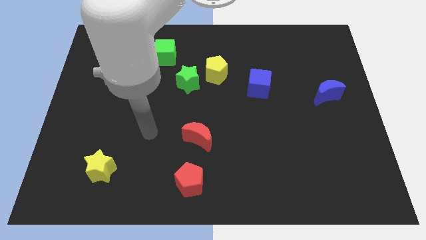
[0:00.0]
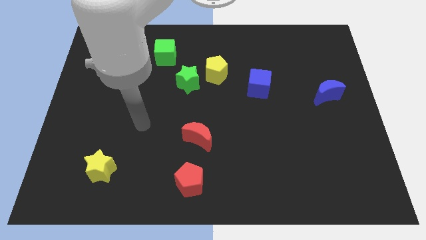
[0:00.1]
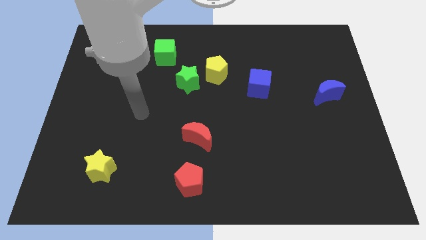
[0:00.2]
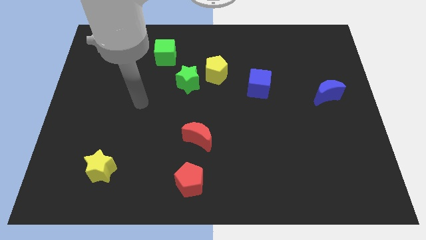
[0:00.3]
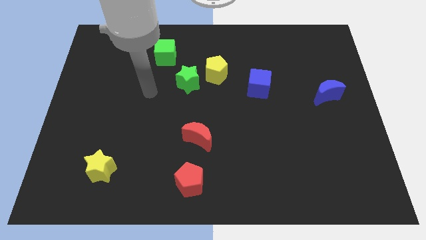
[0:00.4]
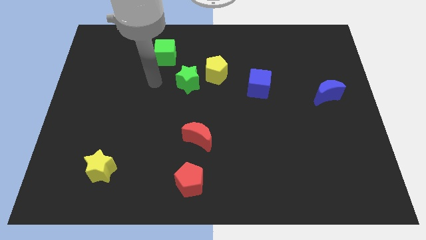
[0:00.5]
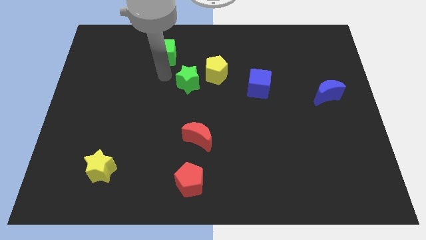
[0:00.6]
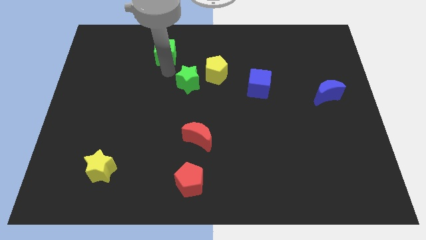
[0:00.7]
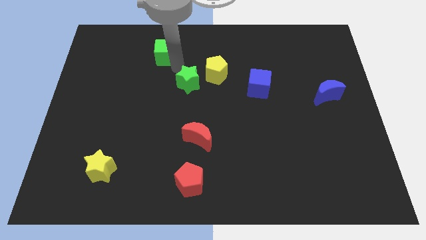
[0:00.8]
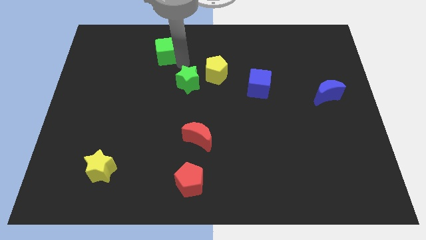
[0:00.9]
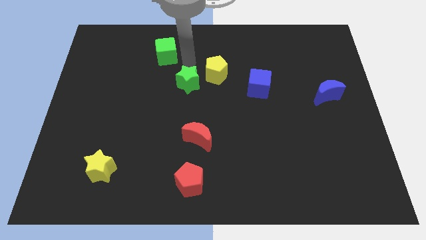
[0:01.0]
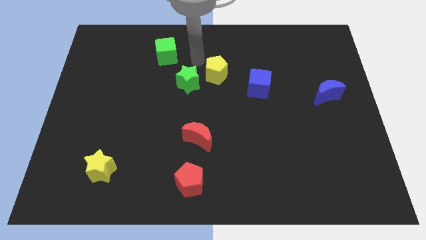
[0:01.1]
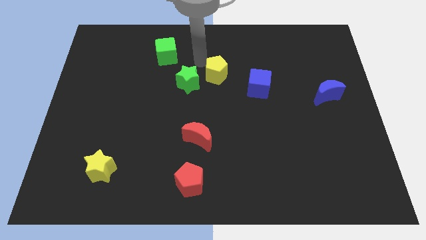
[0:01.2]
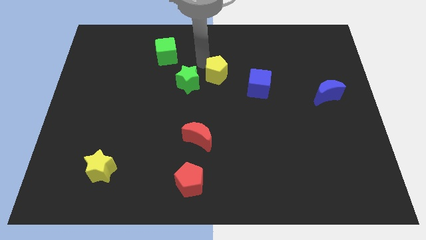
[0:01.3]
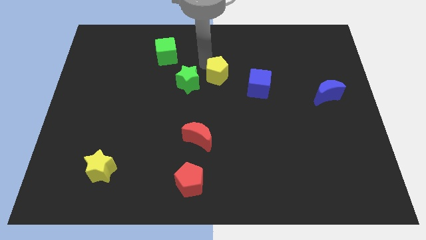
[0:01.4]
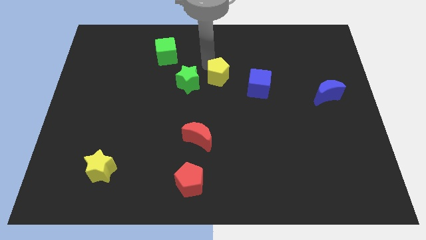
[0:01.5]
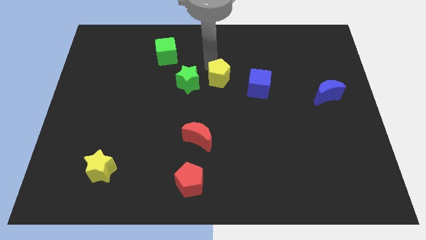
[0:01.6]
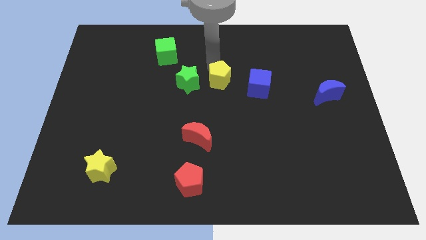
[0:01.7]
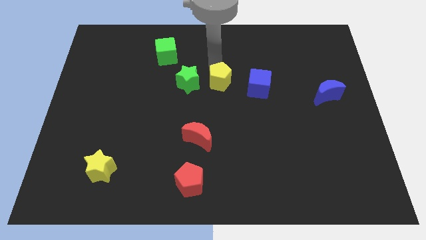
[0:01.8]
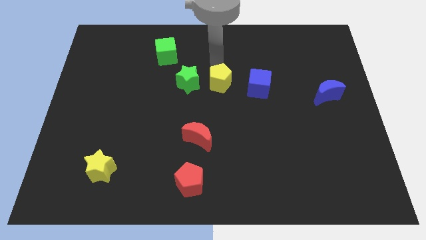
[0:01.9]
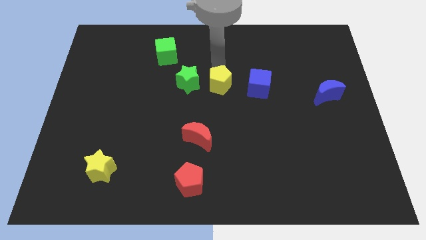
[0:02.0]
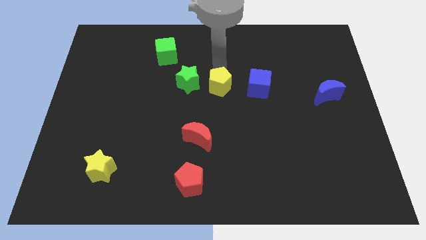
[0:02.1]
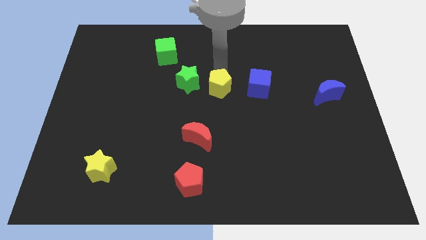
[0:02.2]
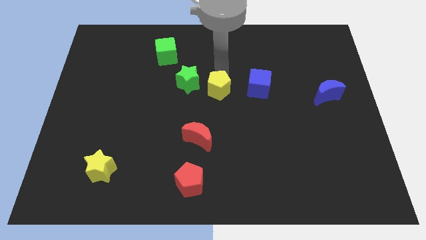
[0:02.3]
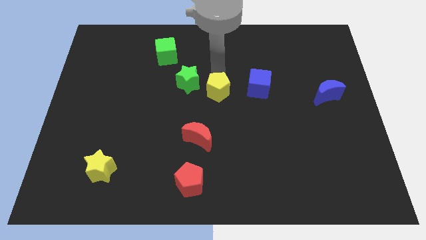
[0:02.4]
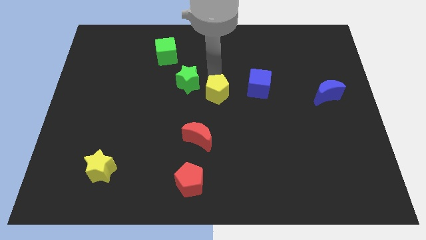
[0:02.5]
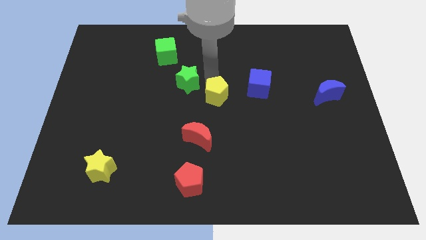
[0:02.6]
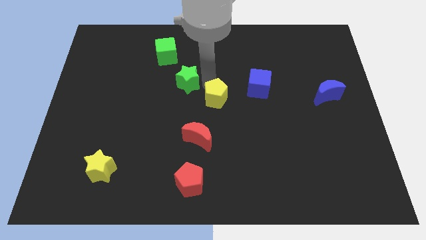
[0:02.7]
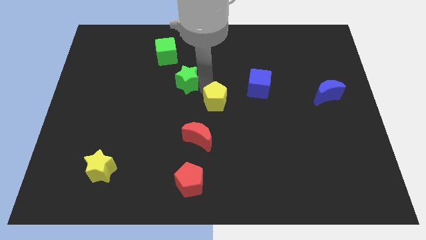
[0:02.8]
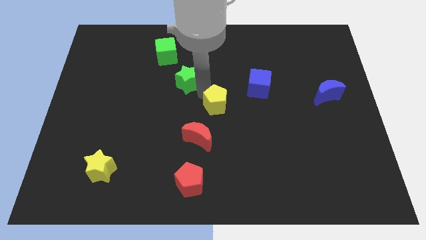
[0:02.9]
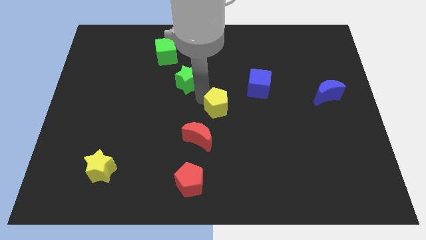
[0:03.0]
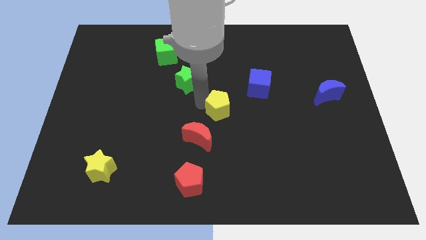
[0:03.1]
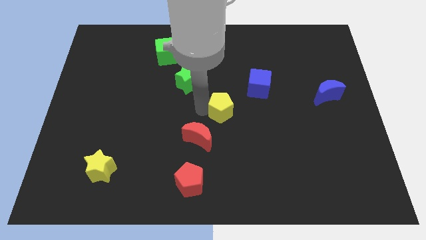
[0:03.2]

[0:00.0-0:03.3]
move the yellow pentagon slightly downwards and then right

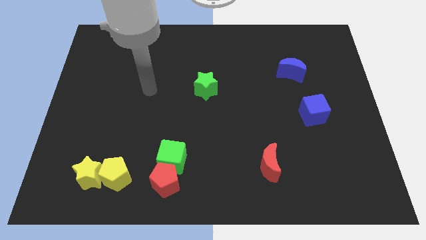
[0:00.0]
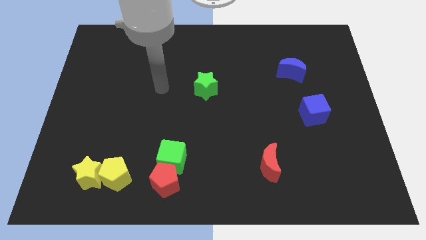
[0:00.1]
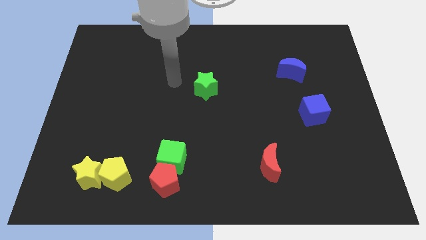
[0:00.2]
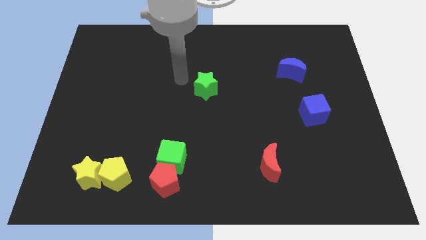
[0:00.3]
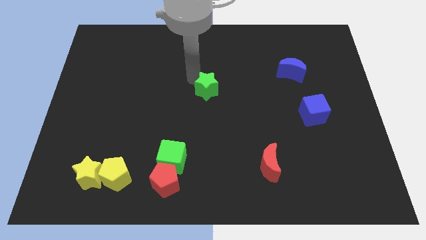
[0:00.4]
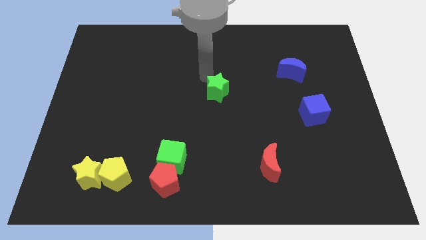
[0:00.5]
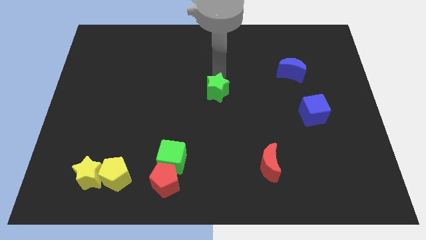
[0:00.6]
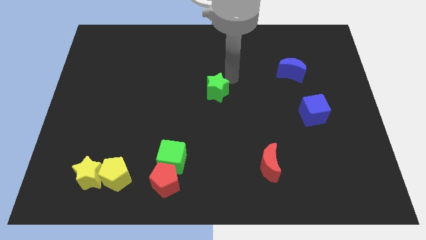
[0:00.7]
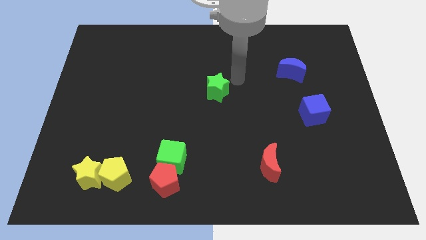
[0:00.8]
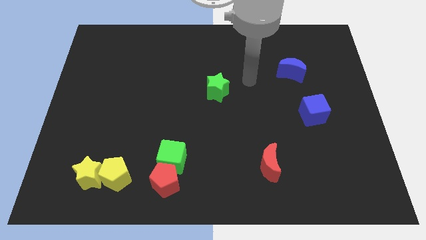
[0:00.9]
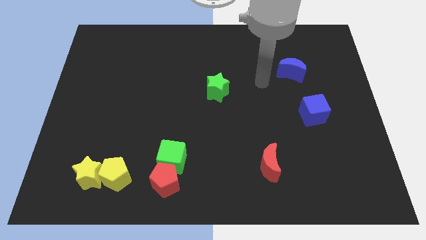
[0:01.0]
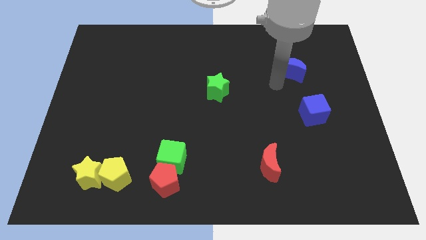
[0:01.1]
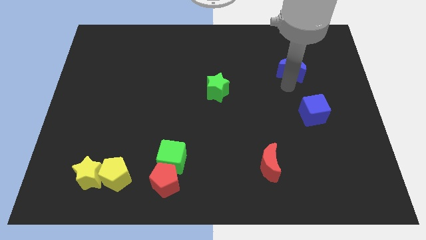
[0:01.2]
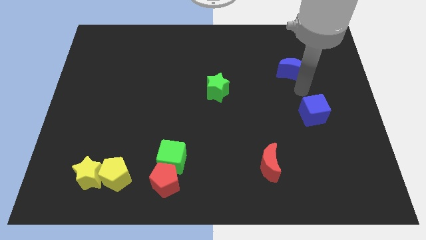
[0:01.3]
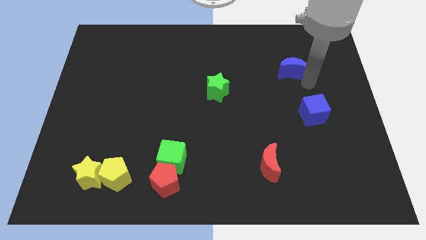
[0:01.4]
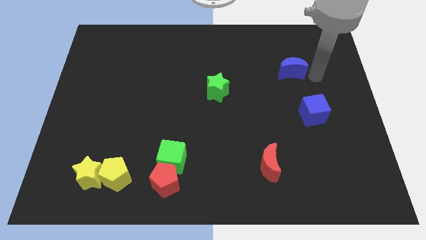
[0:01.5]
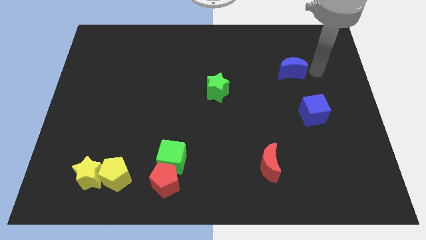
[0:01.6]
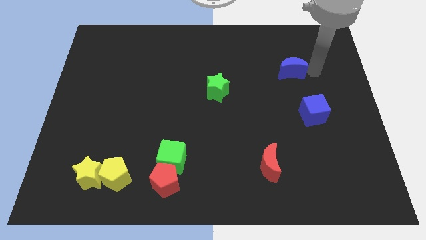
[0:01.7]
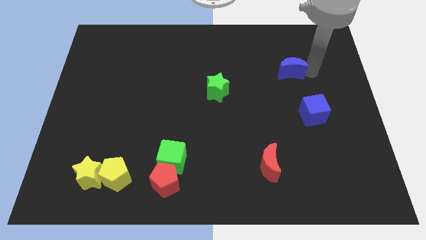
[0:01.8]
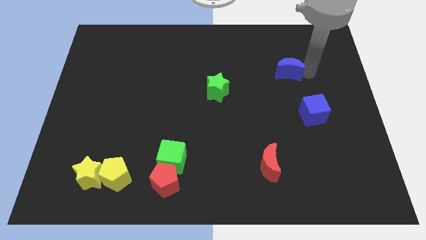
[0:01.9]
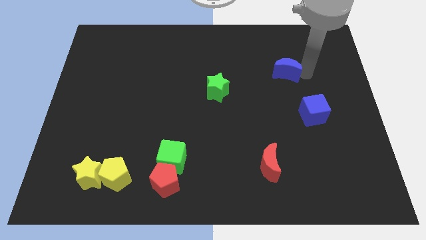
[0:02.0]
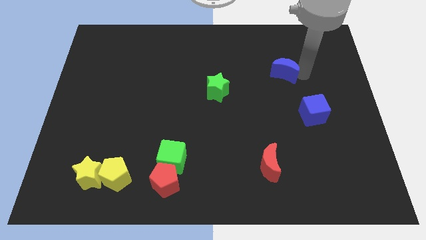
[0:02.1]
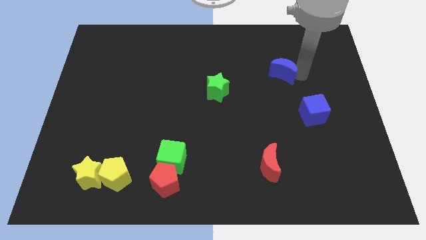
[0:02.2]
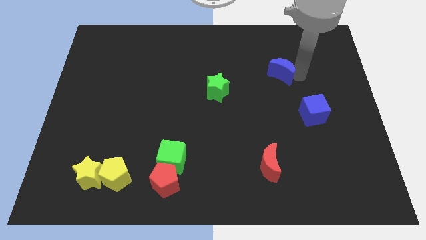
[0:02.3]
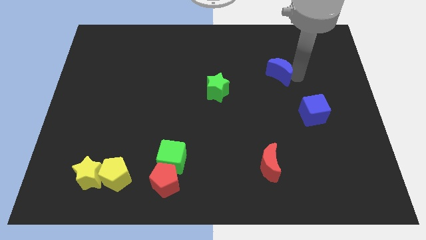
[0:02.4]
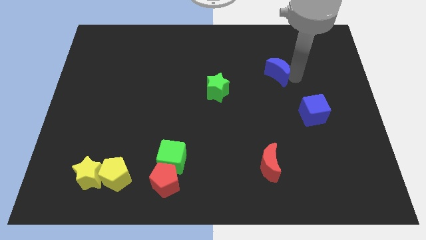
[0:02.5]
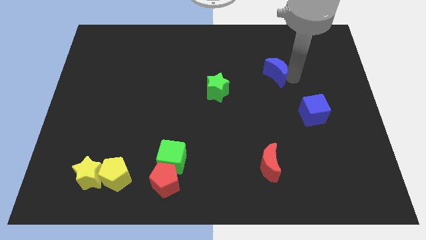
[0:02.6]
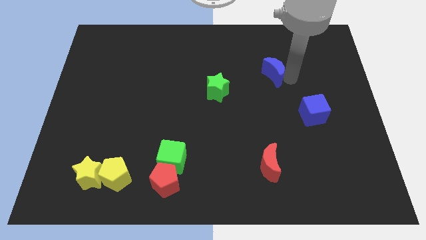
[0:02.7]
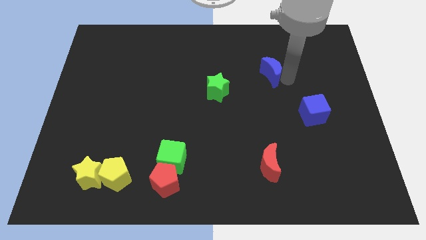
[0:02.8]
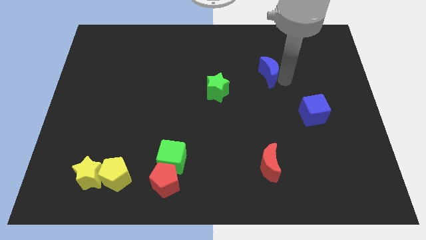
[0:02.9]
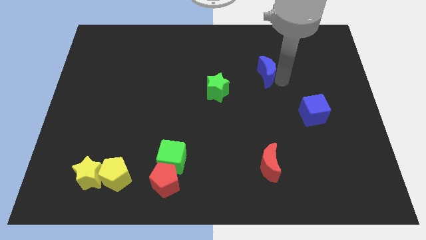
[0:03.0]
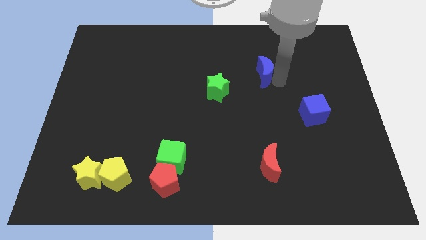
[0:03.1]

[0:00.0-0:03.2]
slightly slide the blue moon left

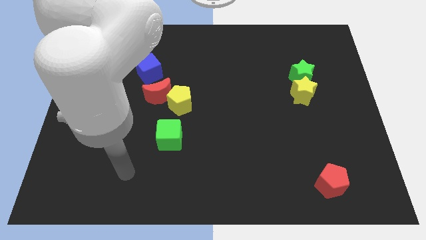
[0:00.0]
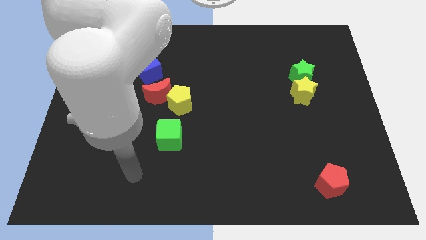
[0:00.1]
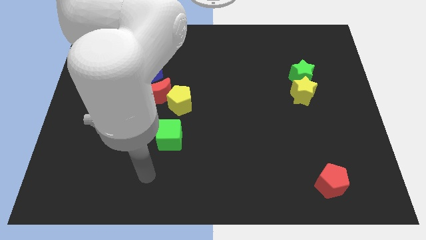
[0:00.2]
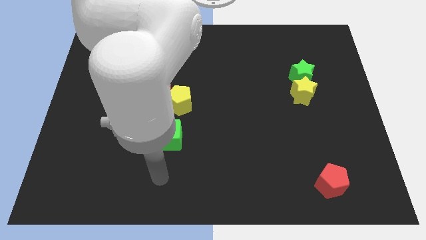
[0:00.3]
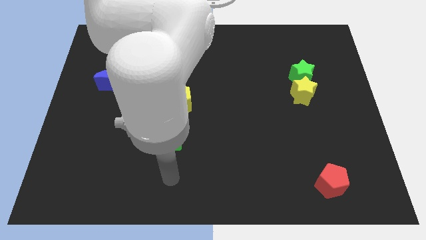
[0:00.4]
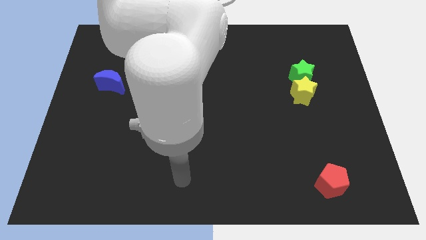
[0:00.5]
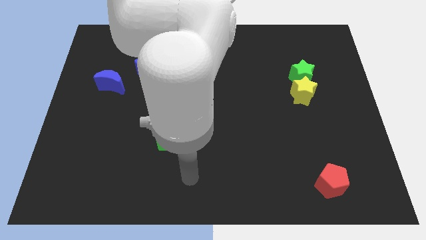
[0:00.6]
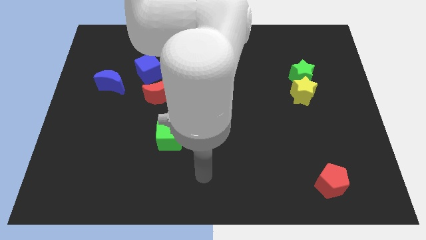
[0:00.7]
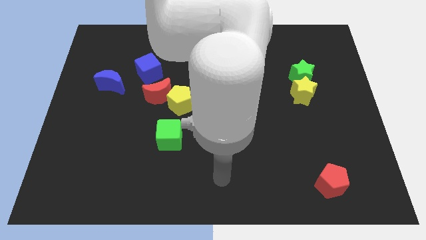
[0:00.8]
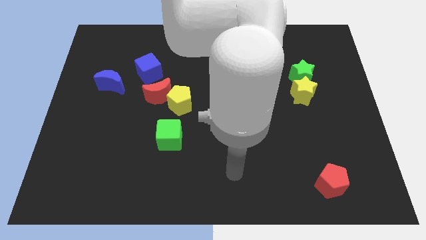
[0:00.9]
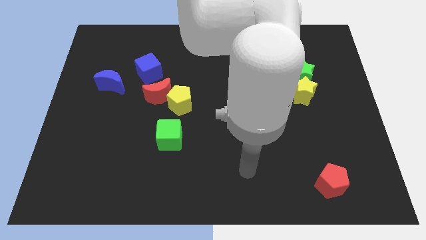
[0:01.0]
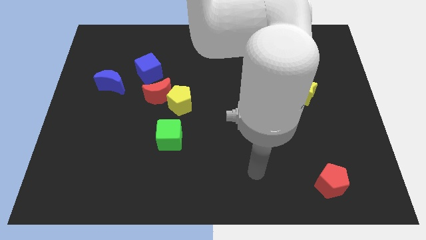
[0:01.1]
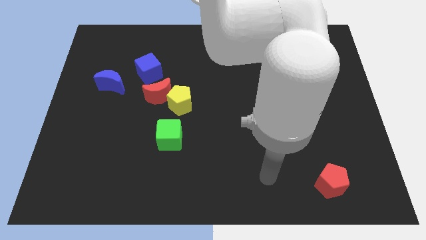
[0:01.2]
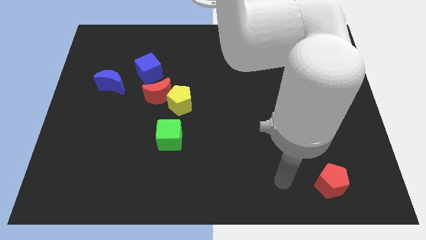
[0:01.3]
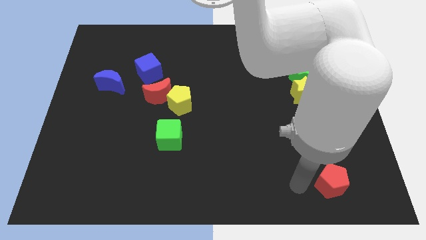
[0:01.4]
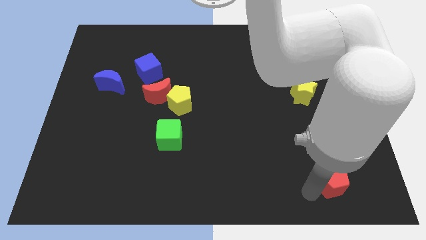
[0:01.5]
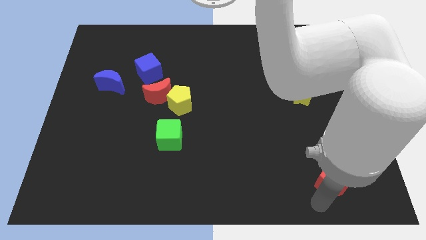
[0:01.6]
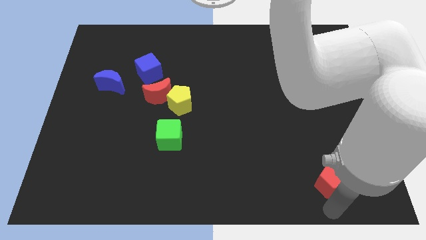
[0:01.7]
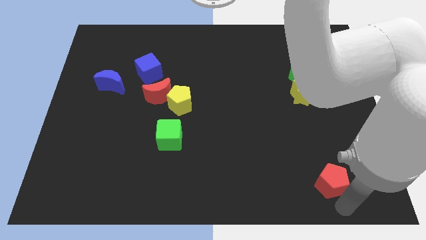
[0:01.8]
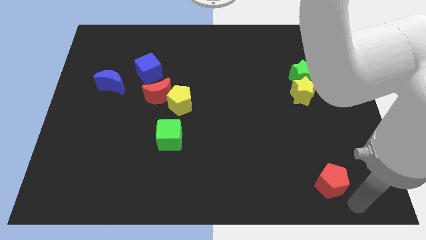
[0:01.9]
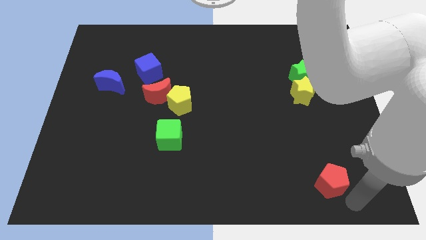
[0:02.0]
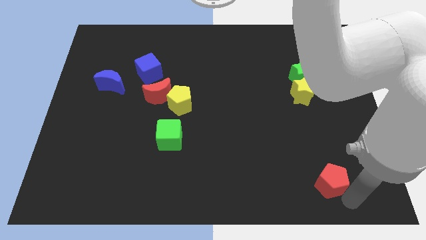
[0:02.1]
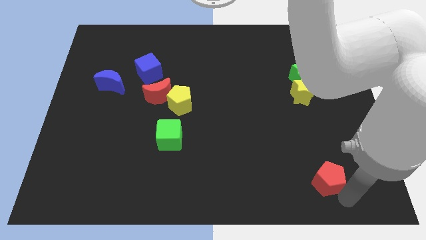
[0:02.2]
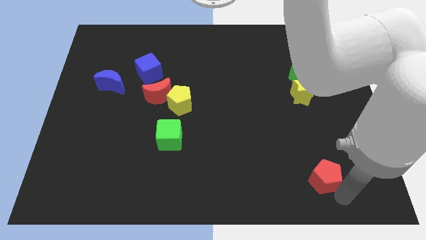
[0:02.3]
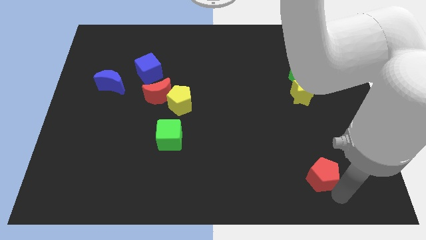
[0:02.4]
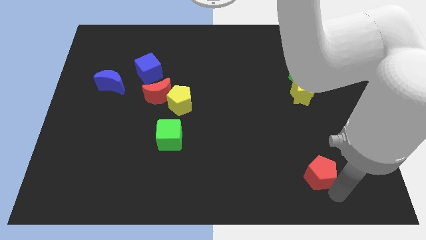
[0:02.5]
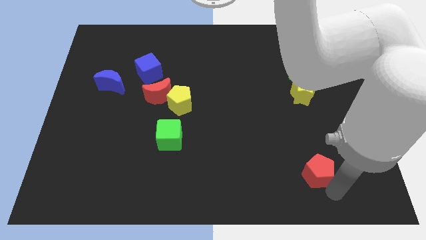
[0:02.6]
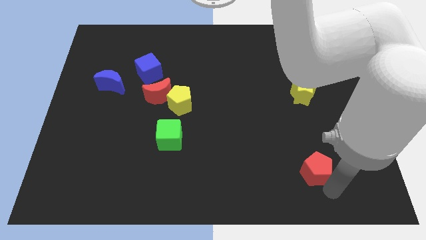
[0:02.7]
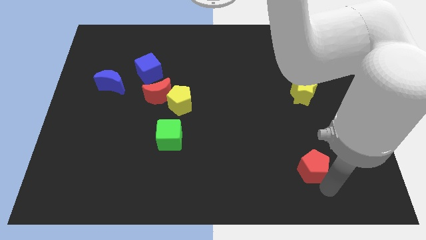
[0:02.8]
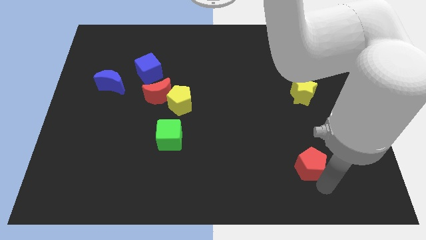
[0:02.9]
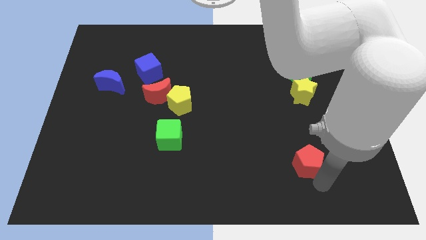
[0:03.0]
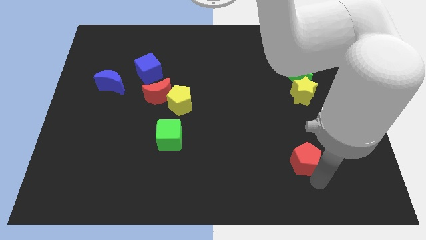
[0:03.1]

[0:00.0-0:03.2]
slightly move the red pentagon upwards and to the left
